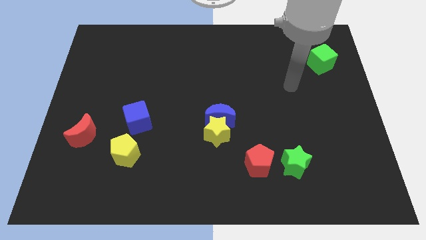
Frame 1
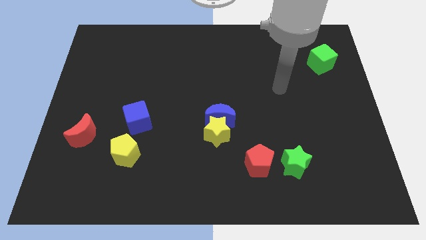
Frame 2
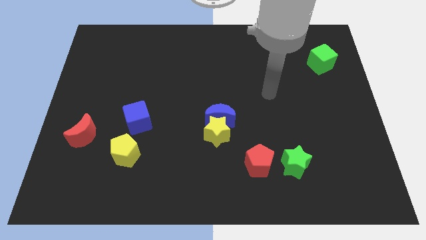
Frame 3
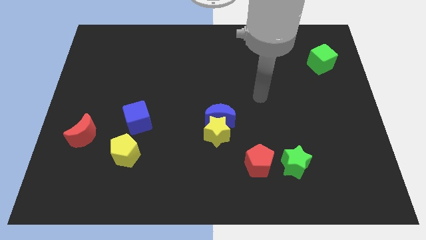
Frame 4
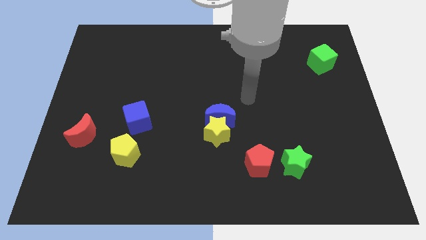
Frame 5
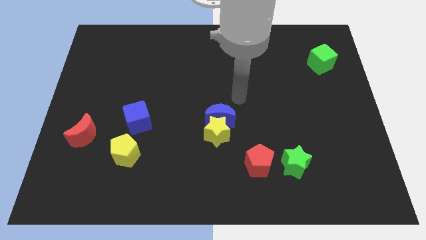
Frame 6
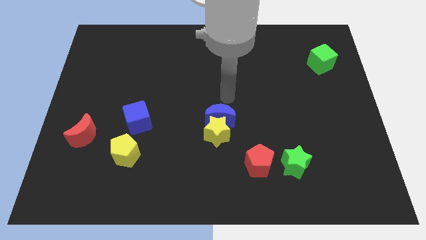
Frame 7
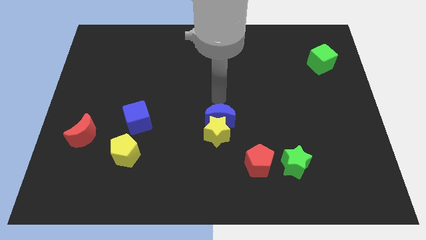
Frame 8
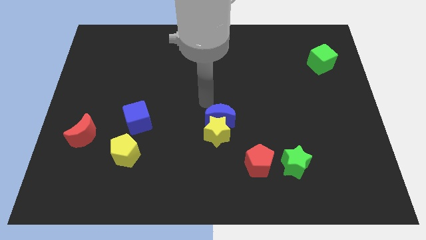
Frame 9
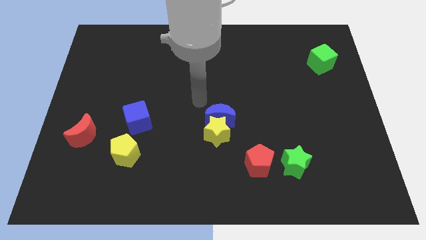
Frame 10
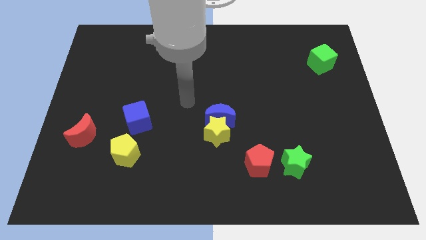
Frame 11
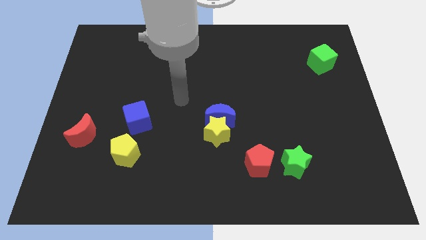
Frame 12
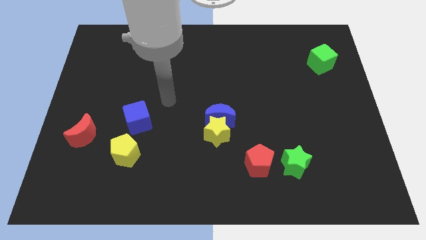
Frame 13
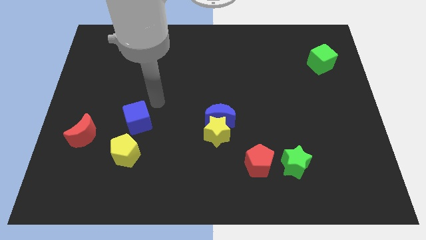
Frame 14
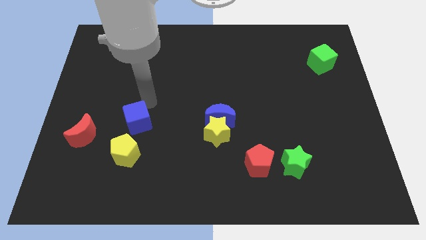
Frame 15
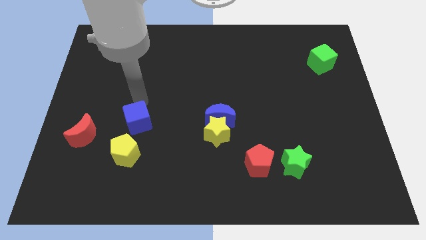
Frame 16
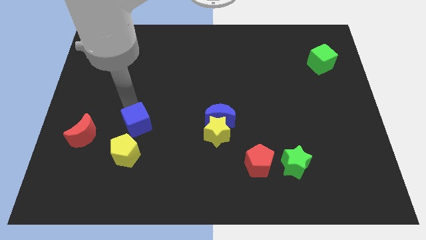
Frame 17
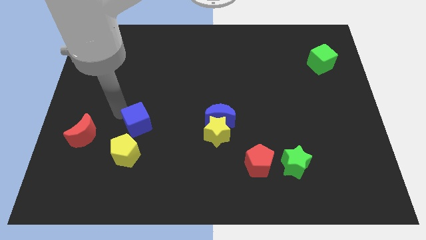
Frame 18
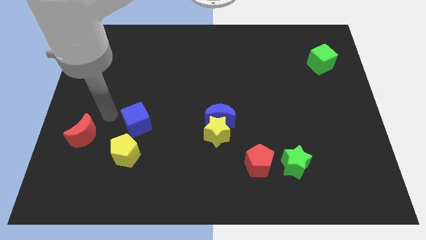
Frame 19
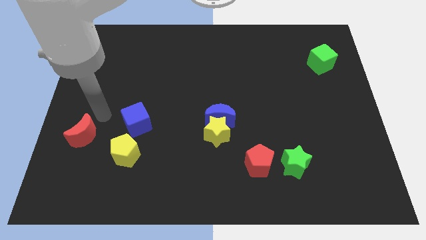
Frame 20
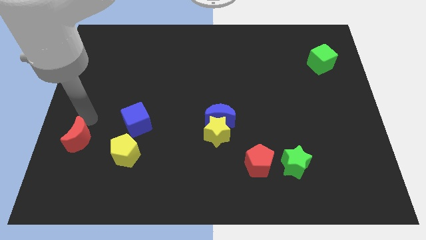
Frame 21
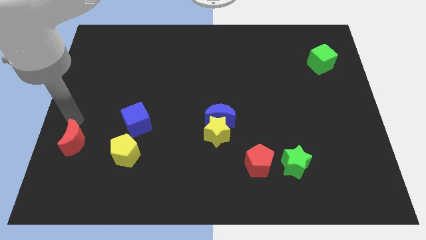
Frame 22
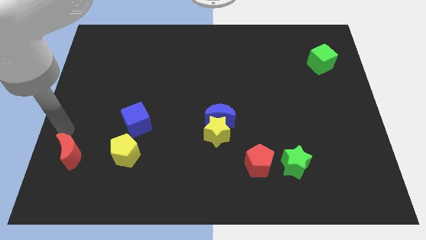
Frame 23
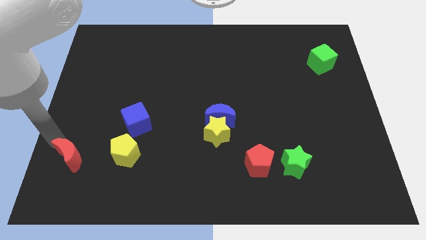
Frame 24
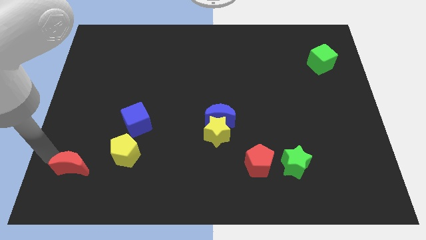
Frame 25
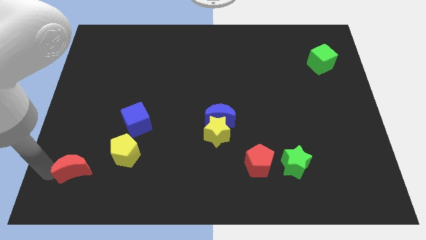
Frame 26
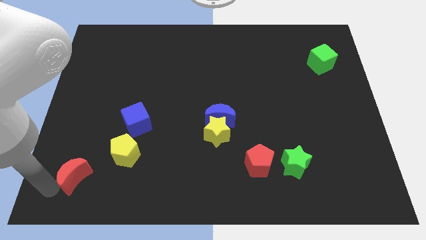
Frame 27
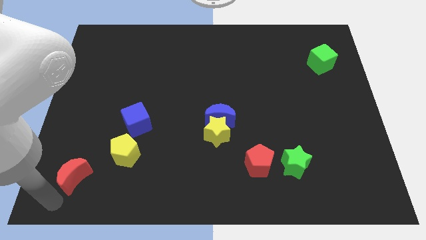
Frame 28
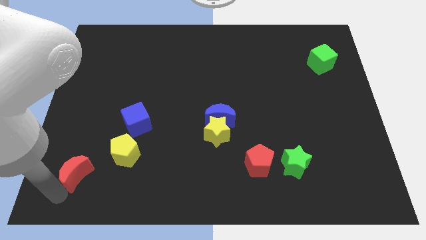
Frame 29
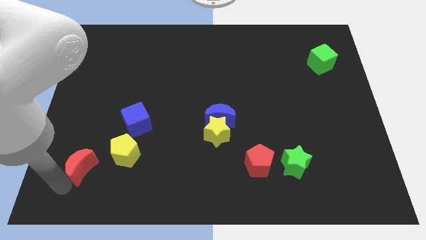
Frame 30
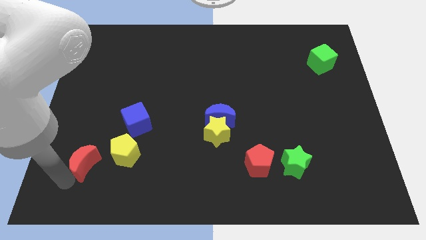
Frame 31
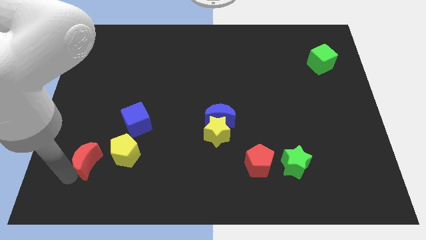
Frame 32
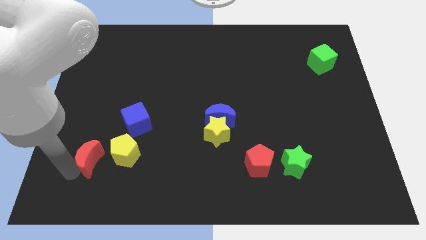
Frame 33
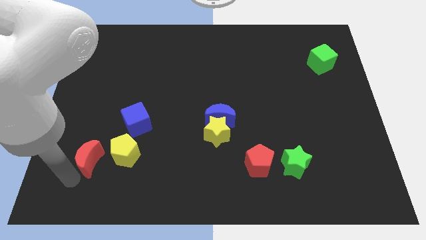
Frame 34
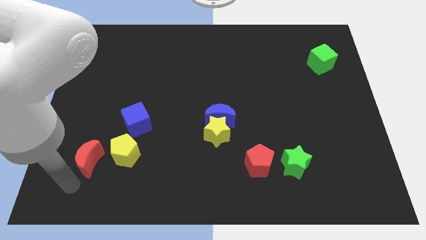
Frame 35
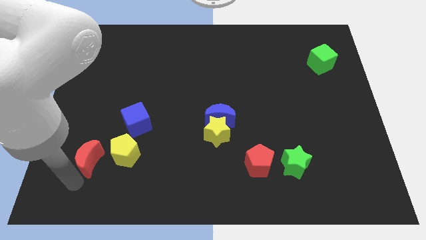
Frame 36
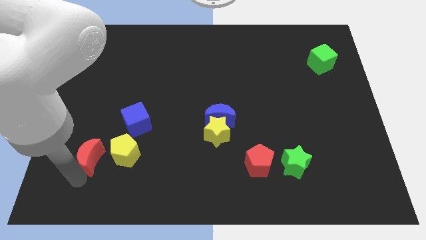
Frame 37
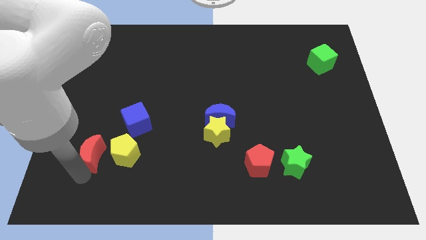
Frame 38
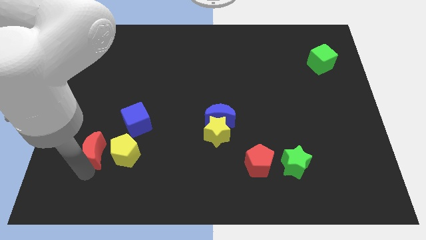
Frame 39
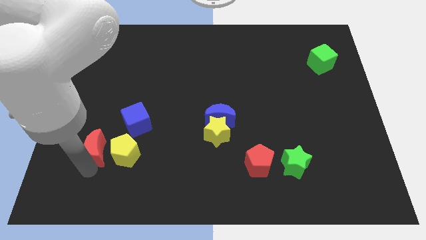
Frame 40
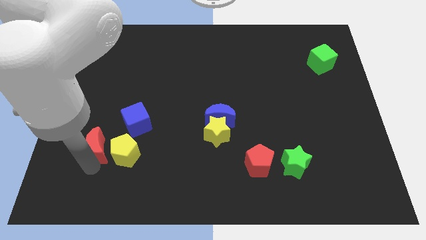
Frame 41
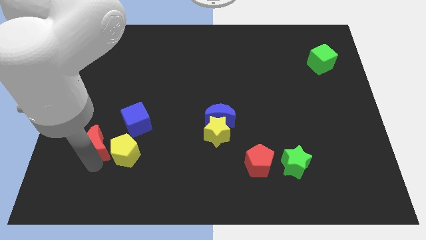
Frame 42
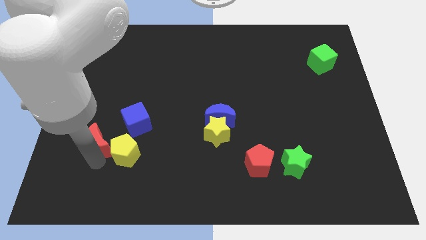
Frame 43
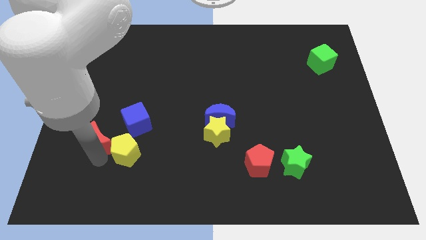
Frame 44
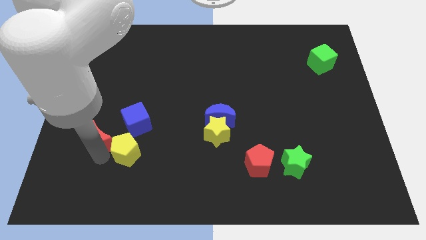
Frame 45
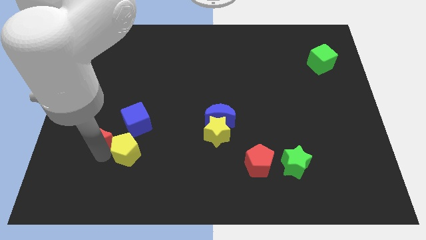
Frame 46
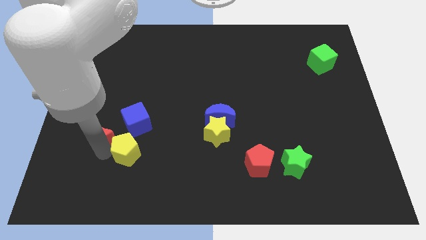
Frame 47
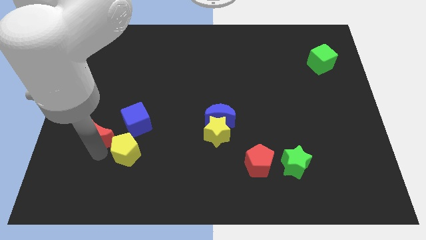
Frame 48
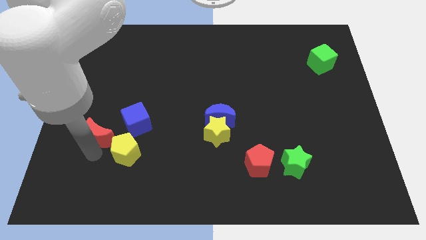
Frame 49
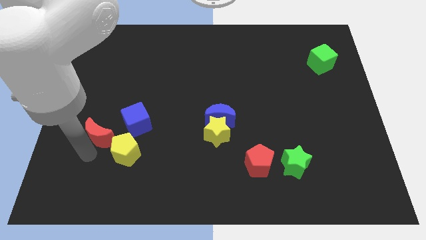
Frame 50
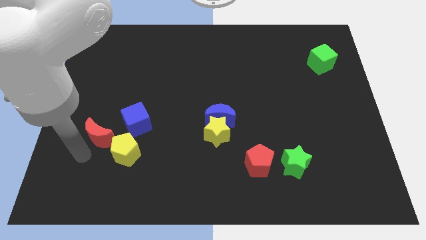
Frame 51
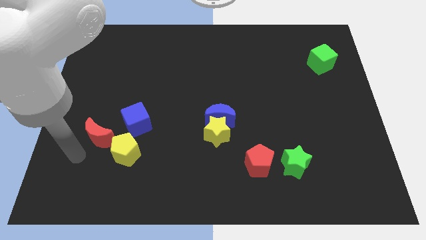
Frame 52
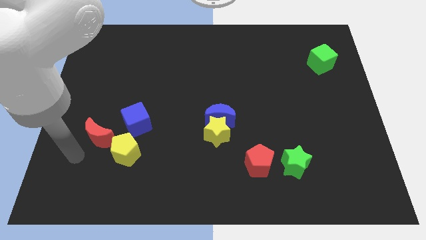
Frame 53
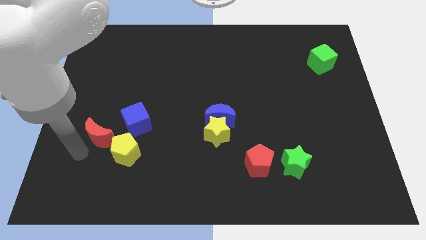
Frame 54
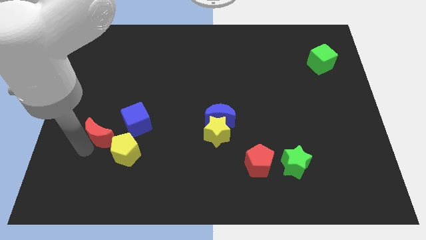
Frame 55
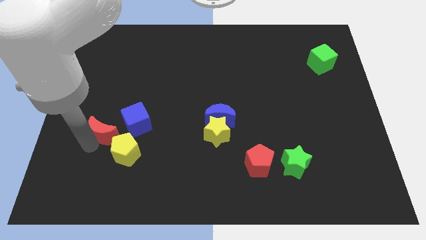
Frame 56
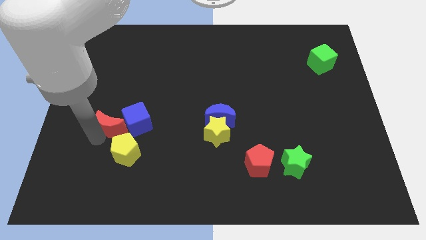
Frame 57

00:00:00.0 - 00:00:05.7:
slide the red moon to the blue cube

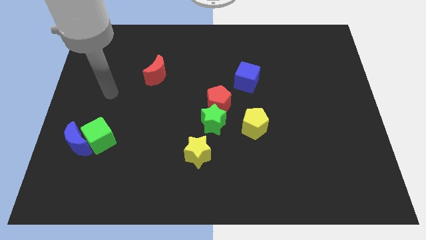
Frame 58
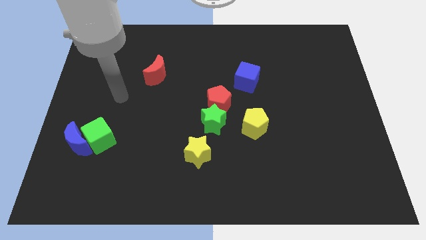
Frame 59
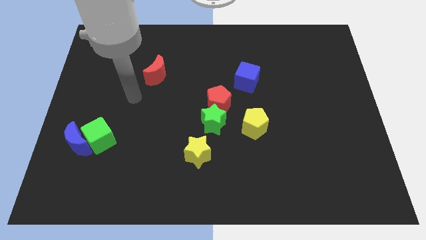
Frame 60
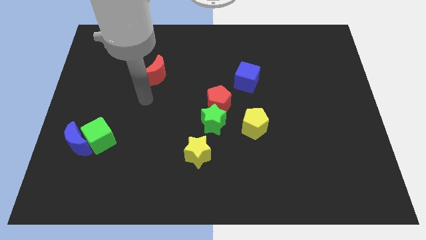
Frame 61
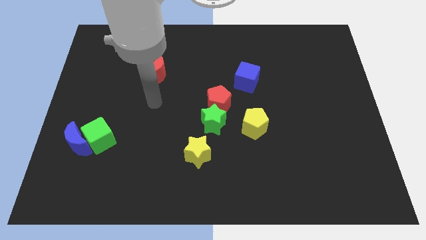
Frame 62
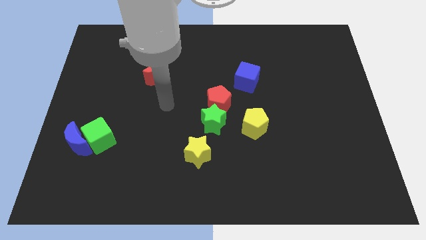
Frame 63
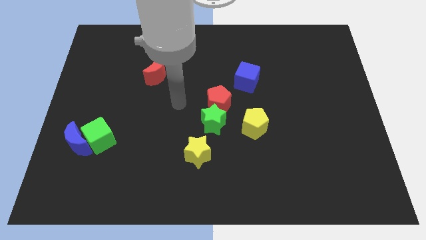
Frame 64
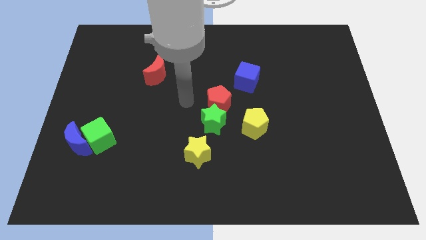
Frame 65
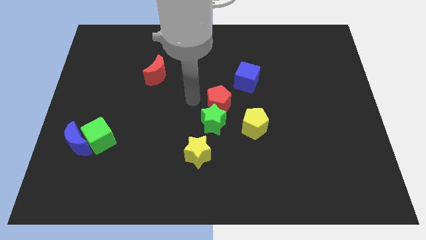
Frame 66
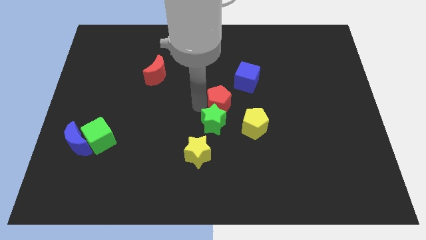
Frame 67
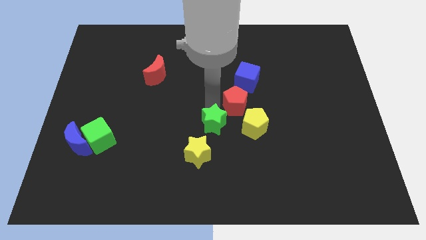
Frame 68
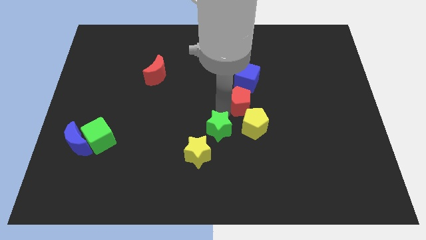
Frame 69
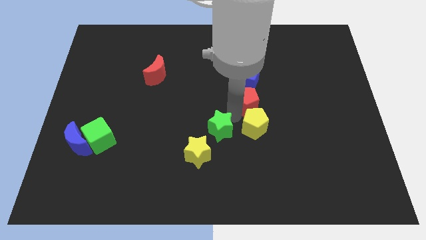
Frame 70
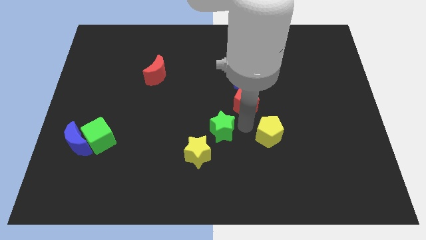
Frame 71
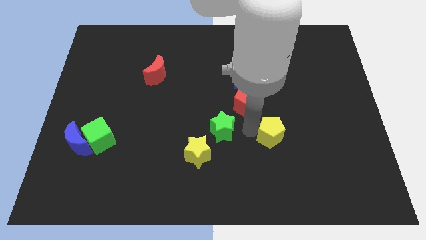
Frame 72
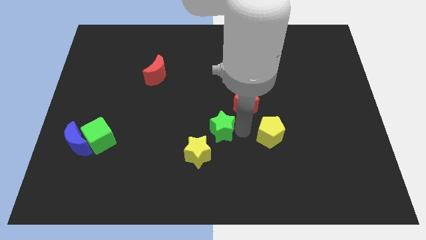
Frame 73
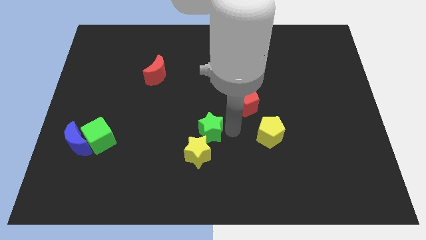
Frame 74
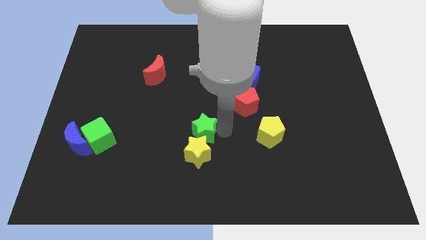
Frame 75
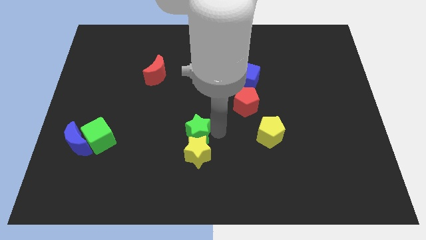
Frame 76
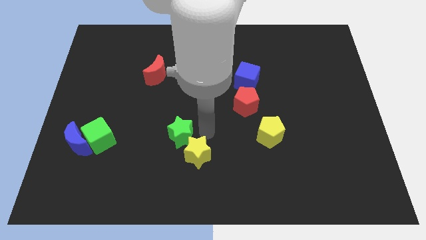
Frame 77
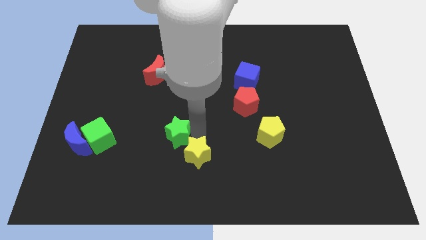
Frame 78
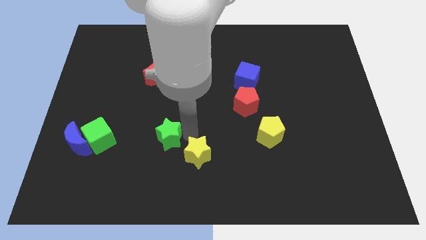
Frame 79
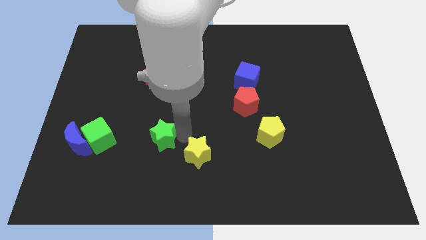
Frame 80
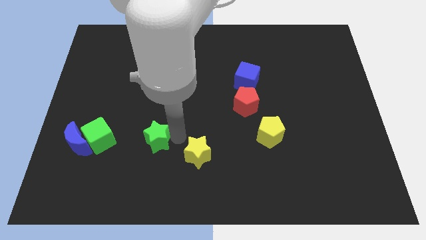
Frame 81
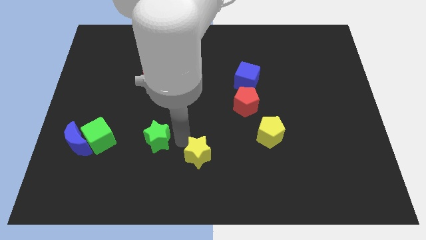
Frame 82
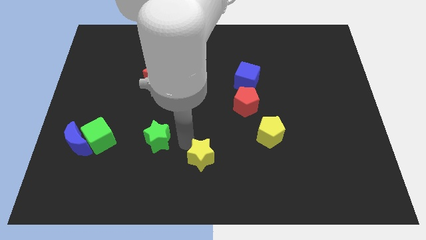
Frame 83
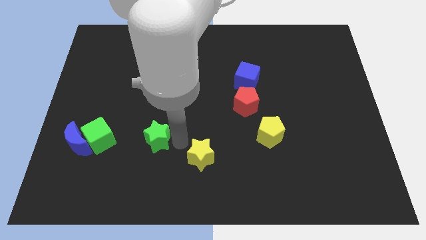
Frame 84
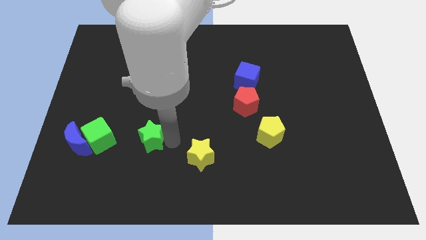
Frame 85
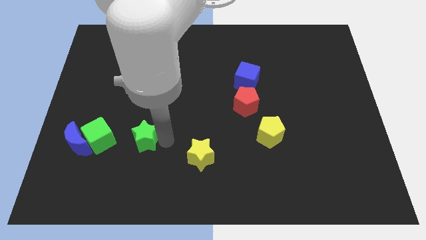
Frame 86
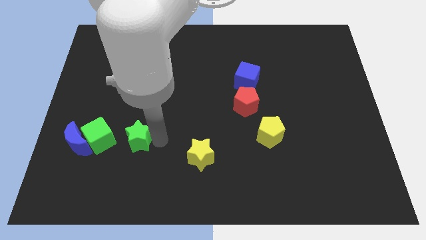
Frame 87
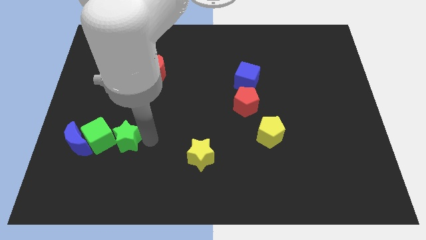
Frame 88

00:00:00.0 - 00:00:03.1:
push the green star towards the green cube
